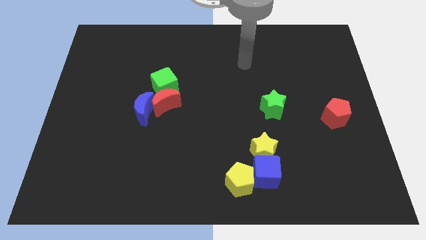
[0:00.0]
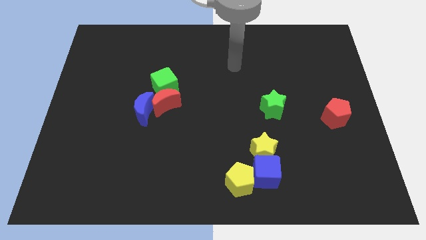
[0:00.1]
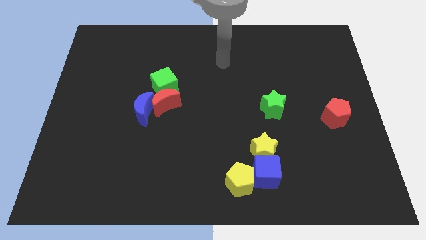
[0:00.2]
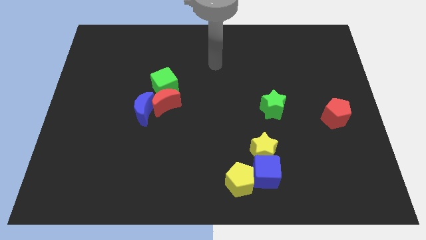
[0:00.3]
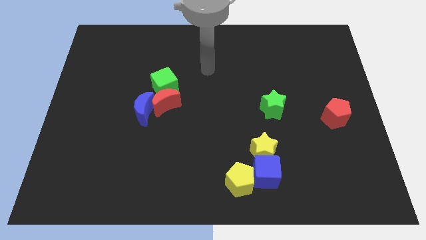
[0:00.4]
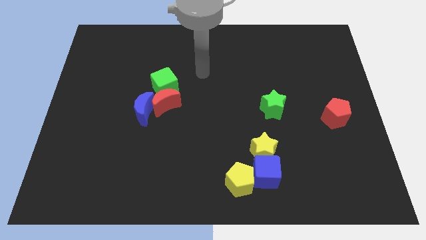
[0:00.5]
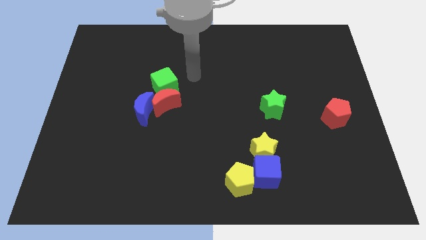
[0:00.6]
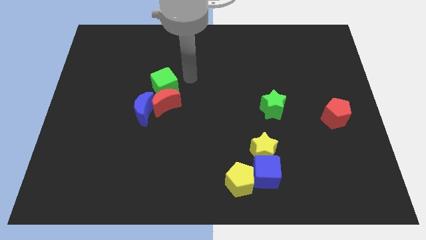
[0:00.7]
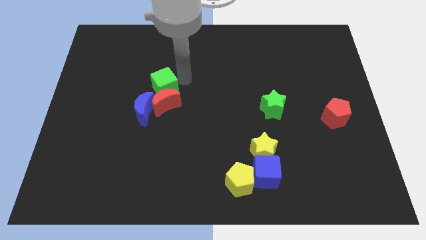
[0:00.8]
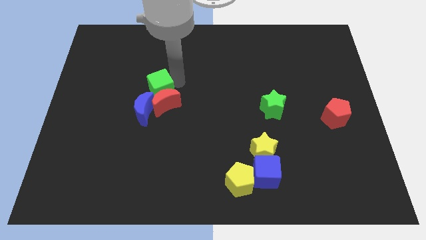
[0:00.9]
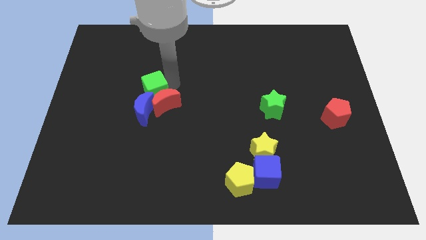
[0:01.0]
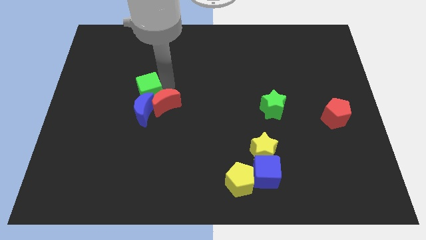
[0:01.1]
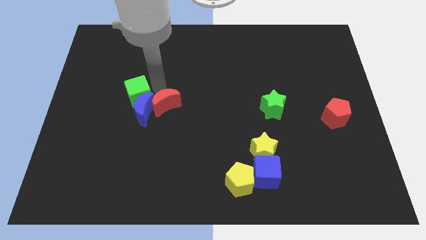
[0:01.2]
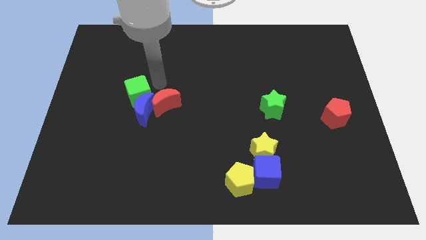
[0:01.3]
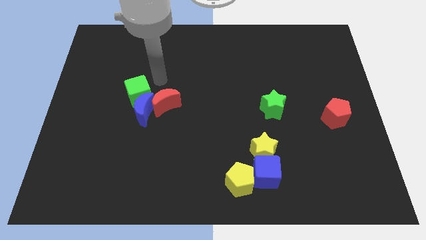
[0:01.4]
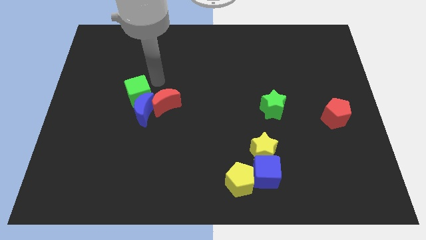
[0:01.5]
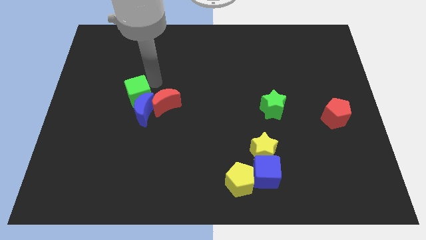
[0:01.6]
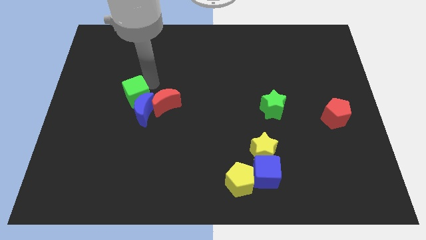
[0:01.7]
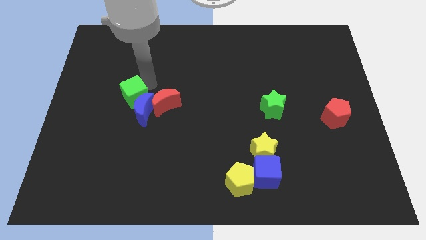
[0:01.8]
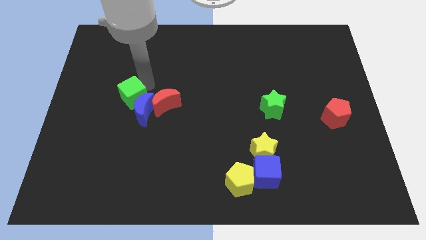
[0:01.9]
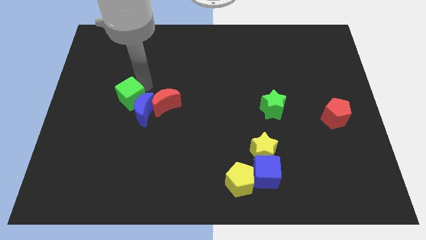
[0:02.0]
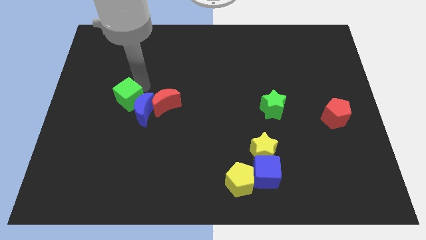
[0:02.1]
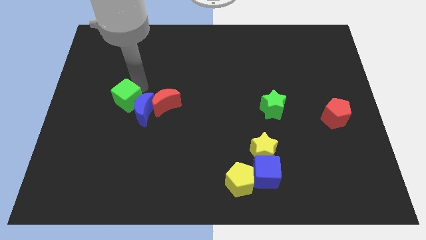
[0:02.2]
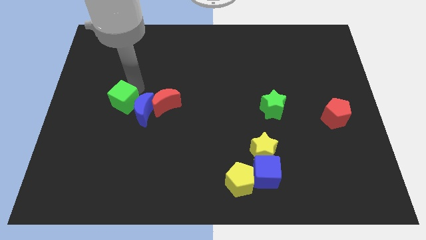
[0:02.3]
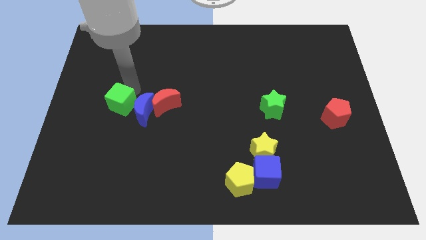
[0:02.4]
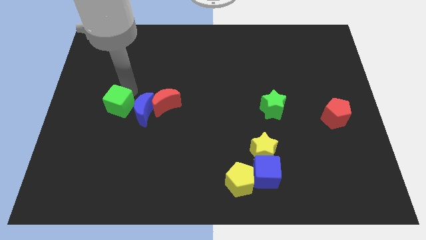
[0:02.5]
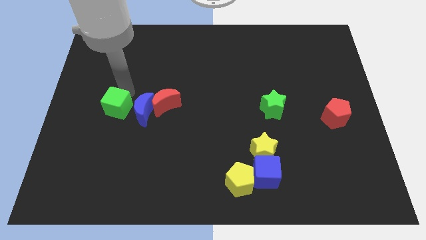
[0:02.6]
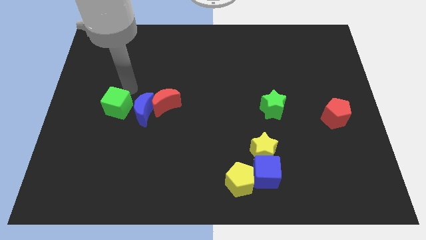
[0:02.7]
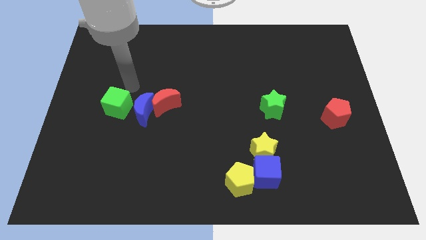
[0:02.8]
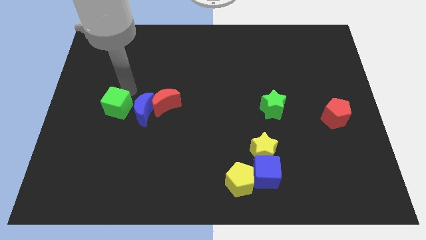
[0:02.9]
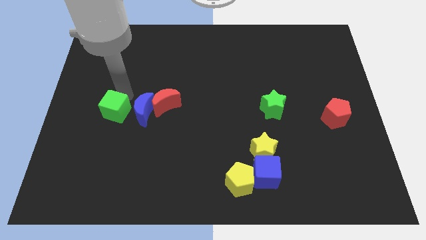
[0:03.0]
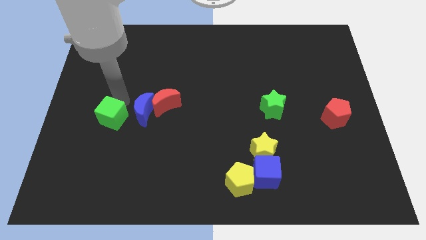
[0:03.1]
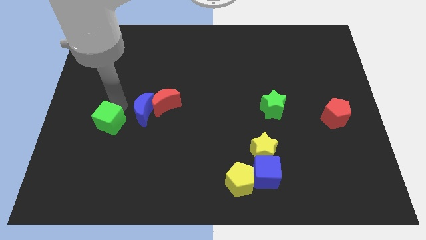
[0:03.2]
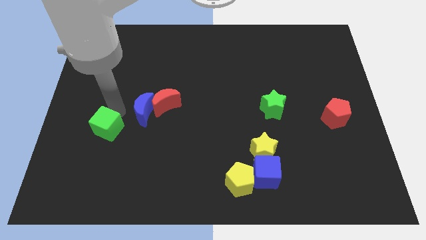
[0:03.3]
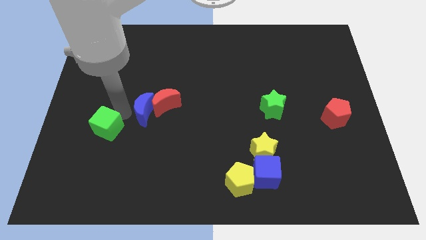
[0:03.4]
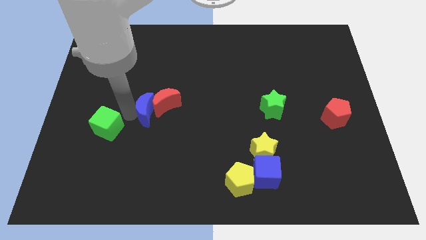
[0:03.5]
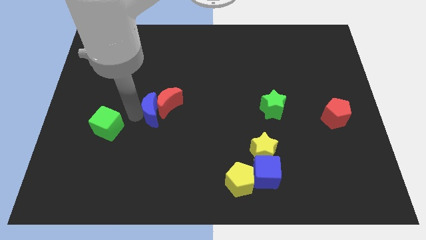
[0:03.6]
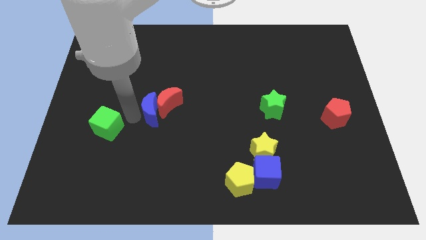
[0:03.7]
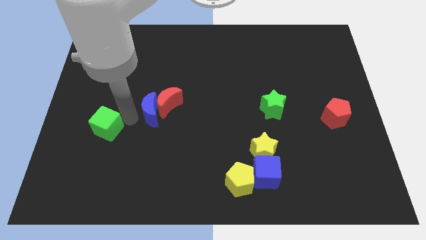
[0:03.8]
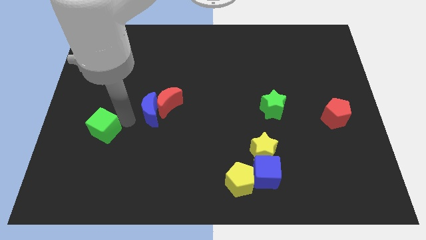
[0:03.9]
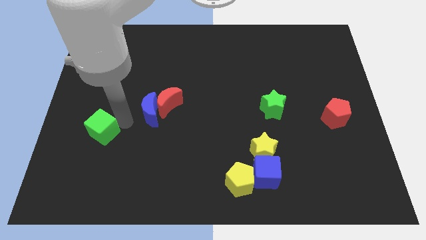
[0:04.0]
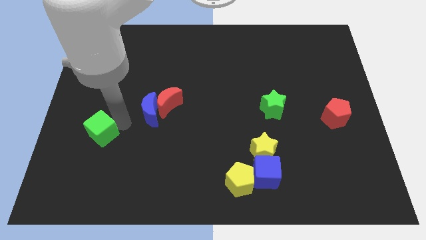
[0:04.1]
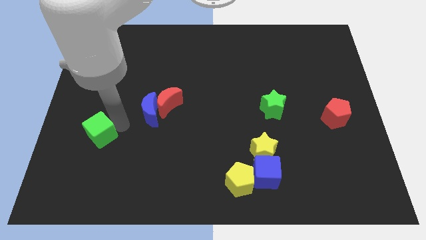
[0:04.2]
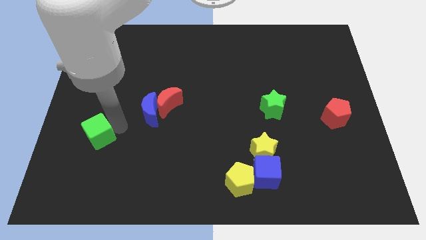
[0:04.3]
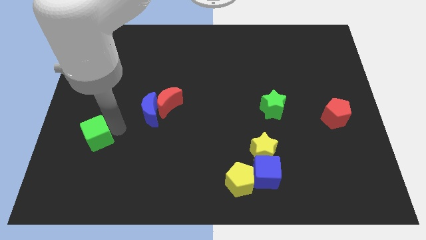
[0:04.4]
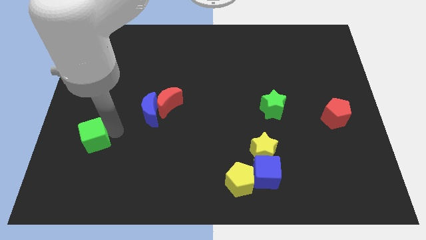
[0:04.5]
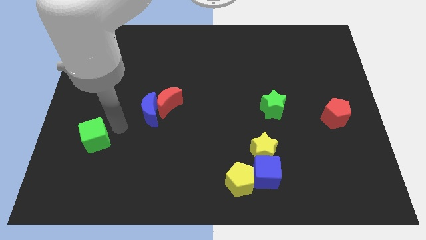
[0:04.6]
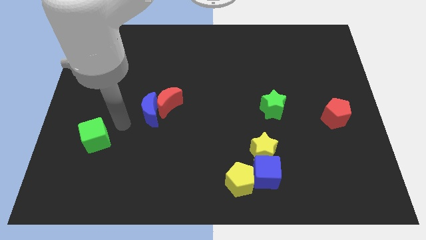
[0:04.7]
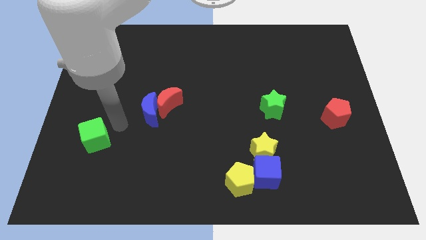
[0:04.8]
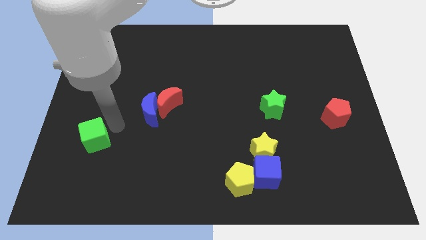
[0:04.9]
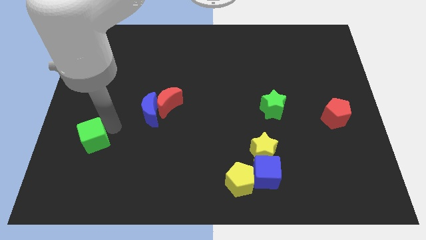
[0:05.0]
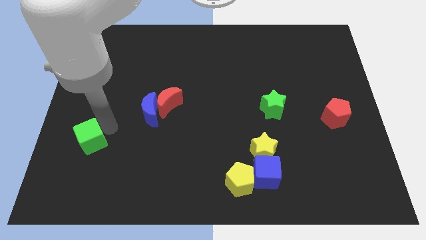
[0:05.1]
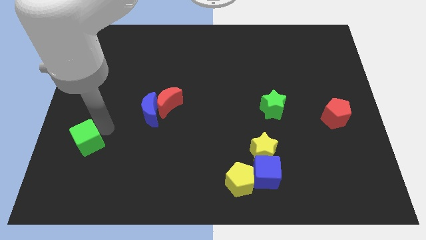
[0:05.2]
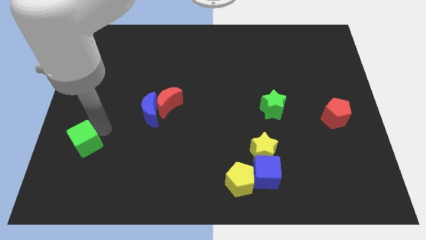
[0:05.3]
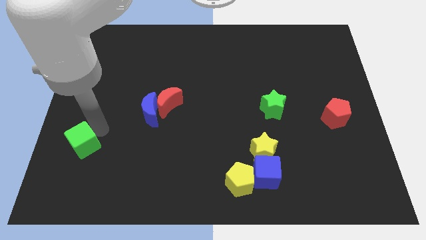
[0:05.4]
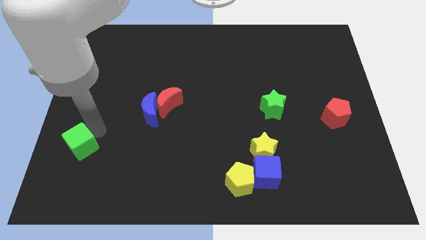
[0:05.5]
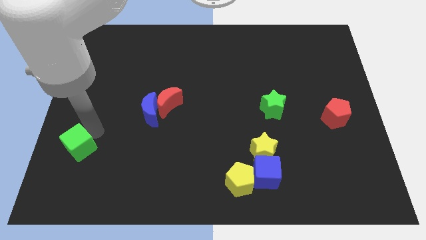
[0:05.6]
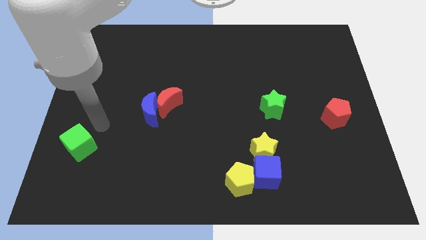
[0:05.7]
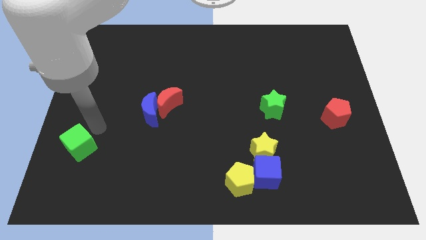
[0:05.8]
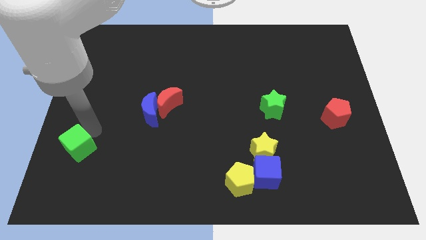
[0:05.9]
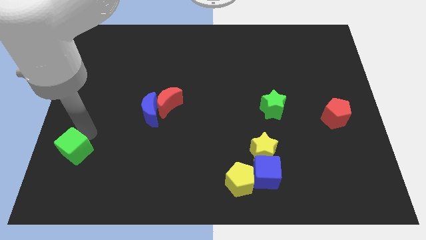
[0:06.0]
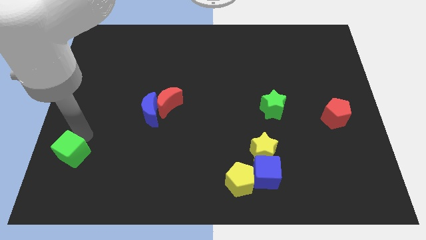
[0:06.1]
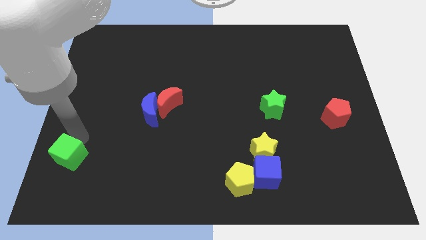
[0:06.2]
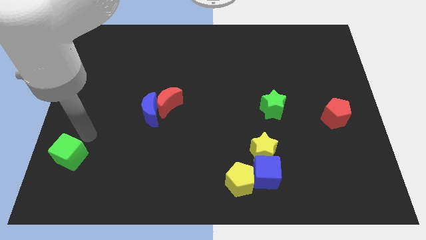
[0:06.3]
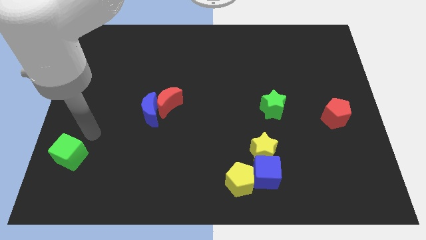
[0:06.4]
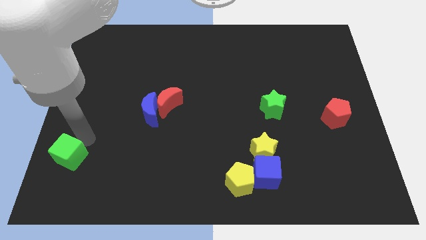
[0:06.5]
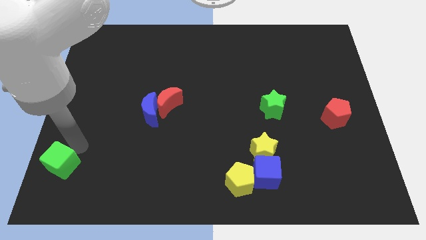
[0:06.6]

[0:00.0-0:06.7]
put the green cube to the bottom left
